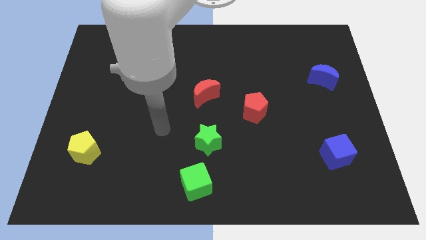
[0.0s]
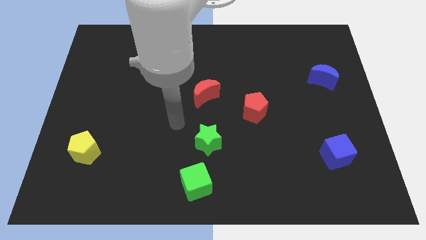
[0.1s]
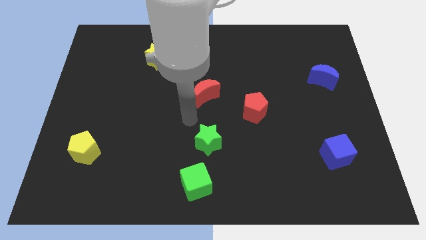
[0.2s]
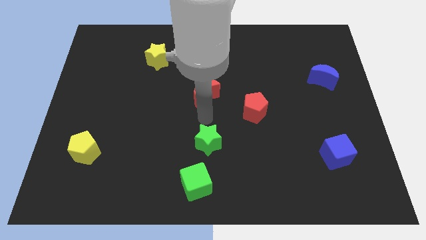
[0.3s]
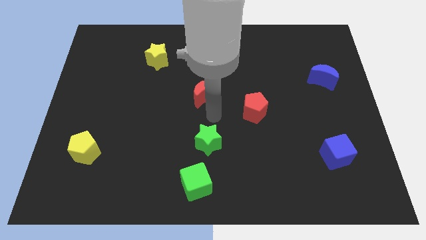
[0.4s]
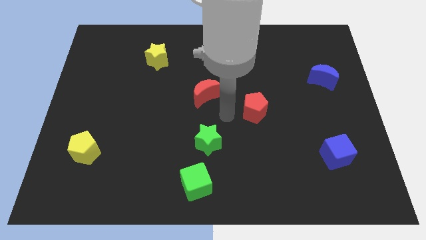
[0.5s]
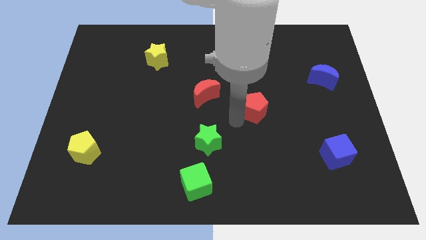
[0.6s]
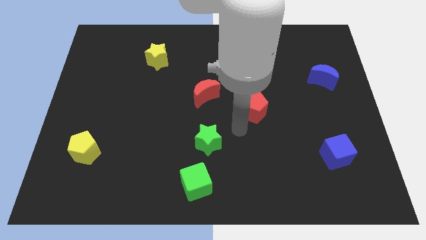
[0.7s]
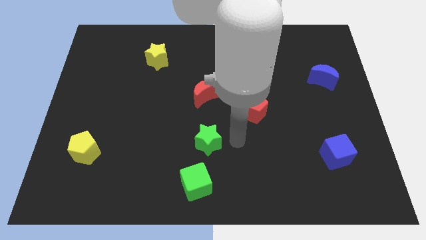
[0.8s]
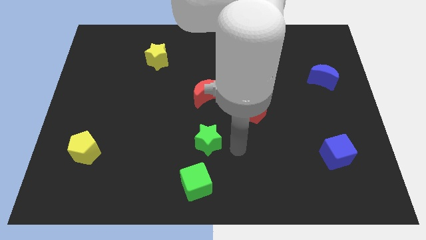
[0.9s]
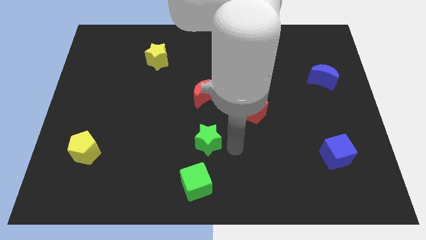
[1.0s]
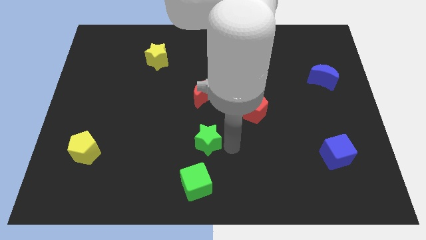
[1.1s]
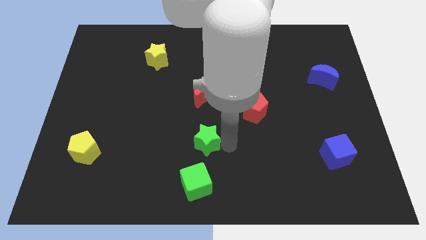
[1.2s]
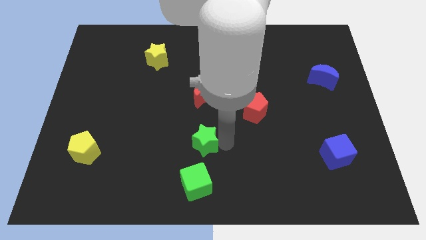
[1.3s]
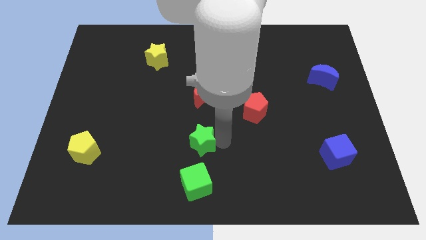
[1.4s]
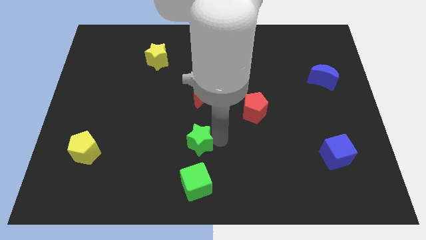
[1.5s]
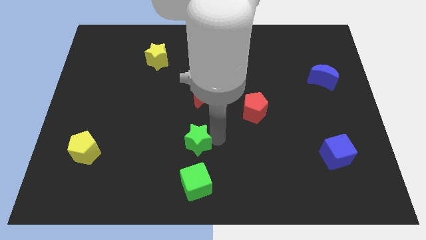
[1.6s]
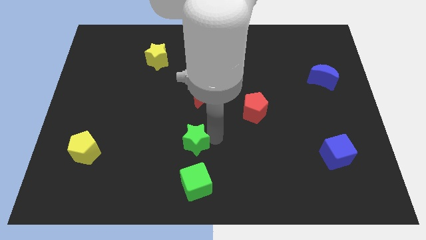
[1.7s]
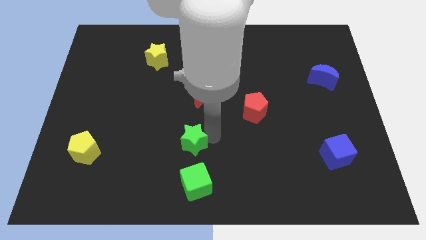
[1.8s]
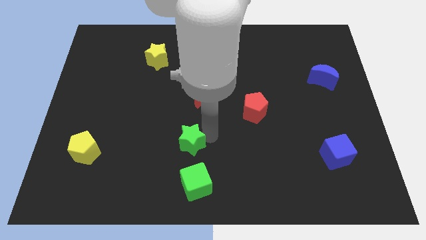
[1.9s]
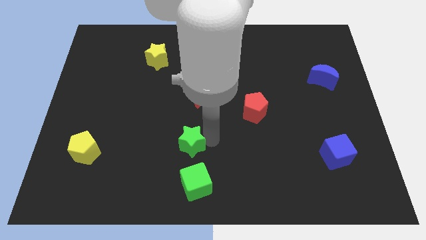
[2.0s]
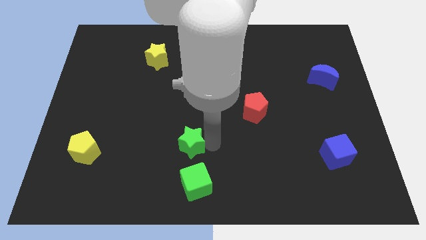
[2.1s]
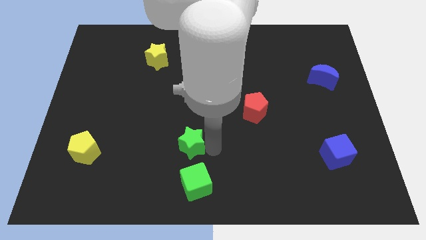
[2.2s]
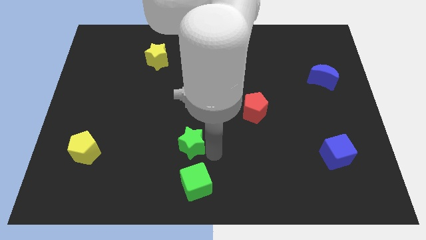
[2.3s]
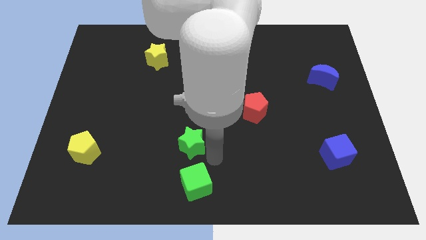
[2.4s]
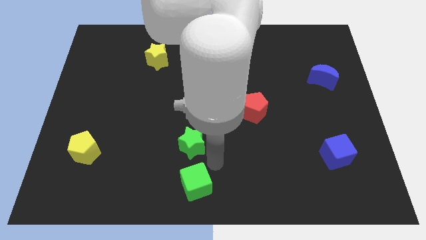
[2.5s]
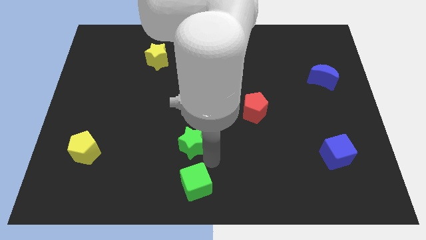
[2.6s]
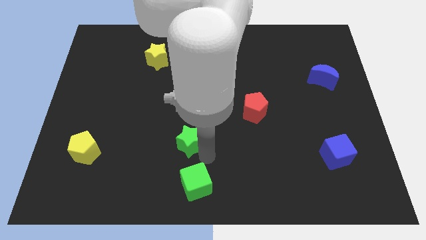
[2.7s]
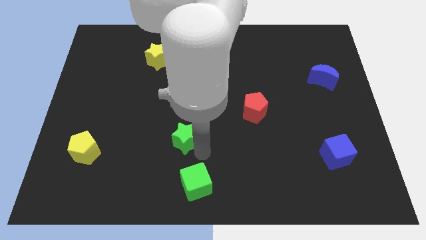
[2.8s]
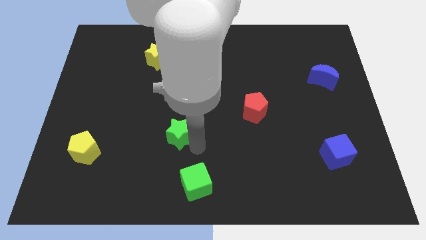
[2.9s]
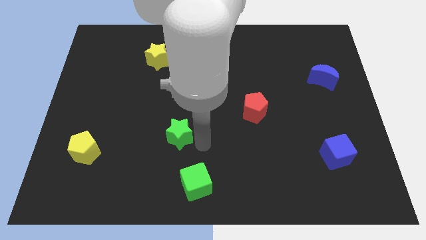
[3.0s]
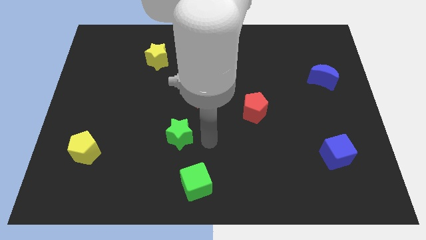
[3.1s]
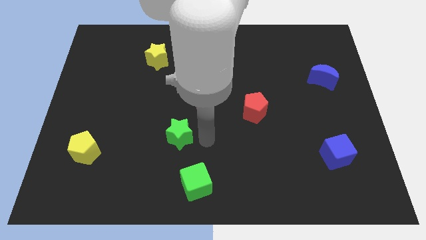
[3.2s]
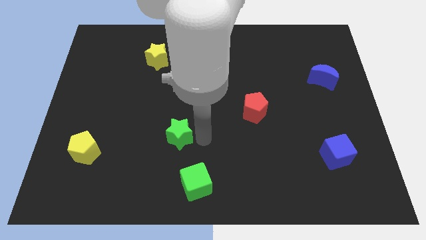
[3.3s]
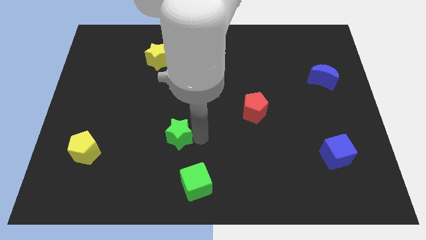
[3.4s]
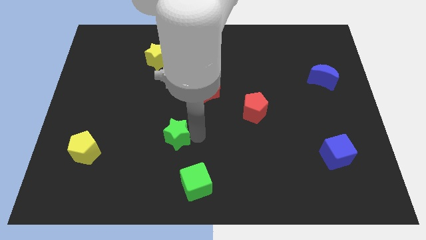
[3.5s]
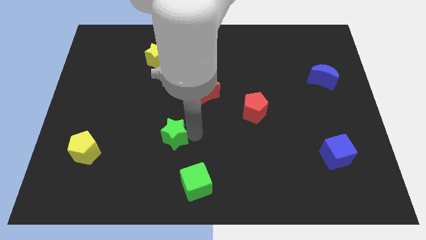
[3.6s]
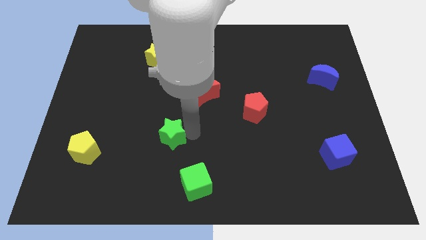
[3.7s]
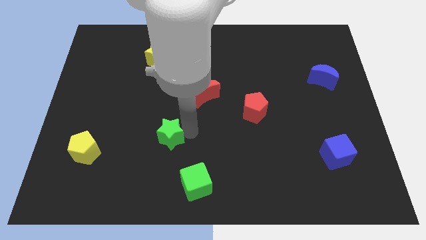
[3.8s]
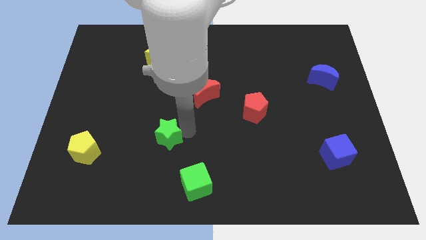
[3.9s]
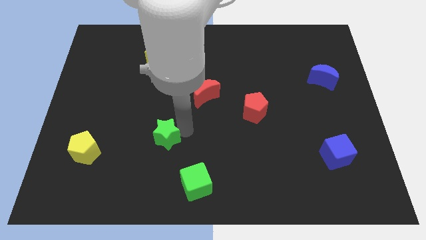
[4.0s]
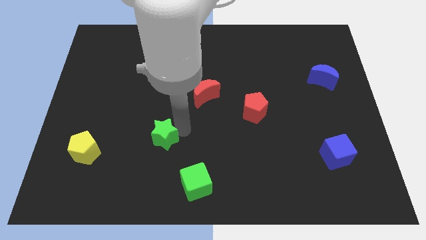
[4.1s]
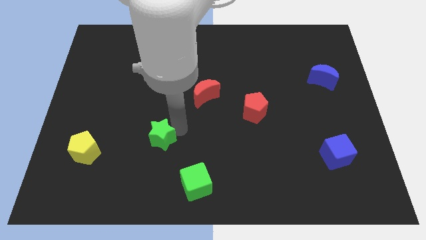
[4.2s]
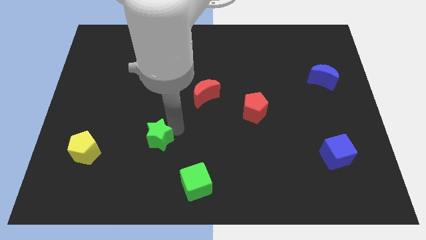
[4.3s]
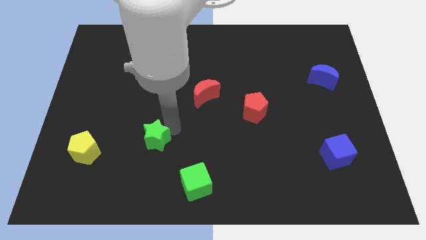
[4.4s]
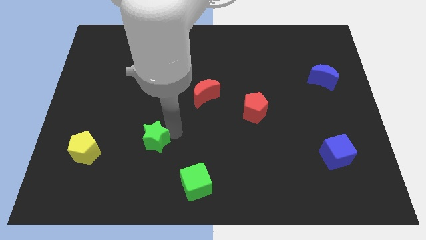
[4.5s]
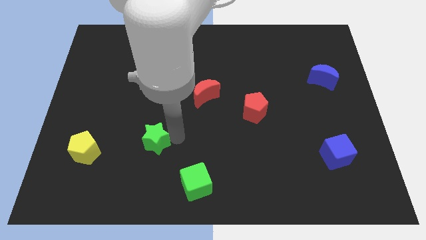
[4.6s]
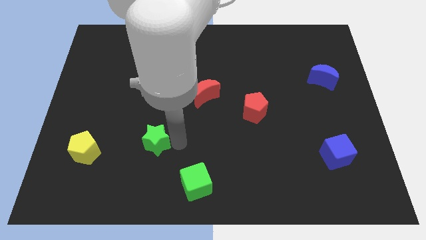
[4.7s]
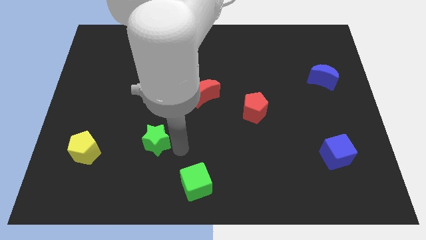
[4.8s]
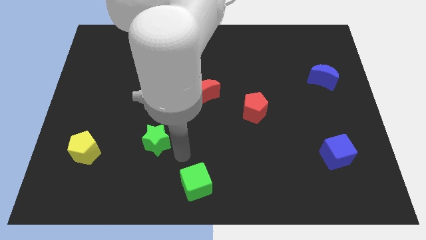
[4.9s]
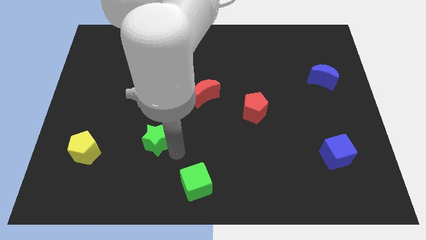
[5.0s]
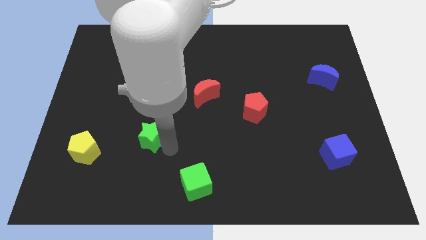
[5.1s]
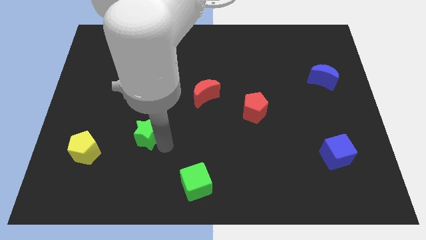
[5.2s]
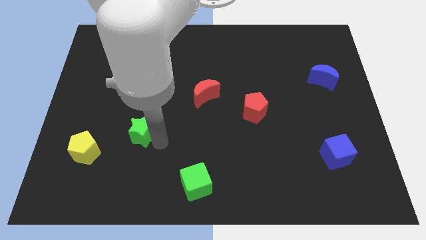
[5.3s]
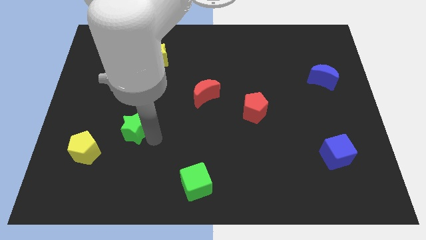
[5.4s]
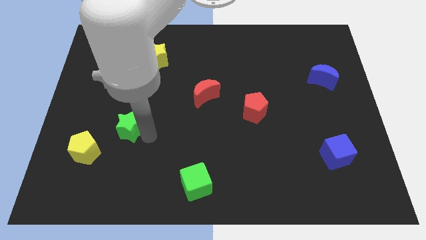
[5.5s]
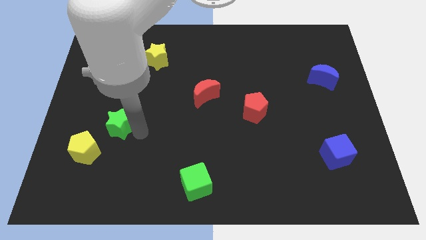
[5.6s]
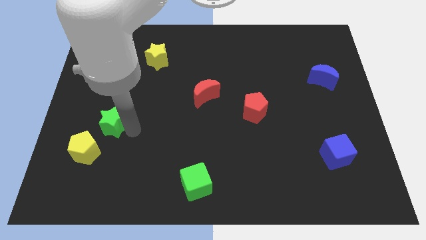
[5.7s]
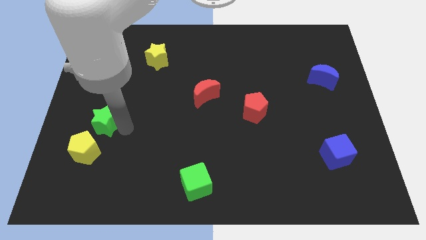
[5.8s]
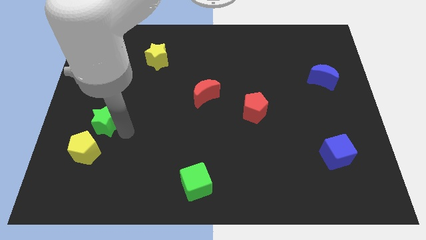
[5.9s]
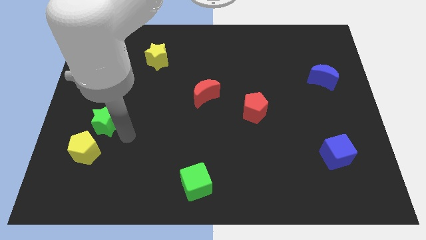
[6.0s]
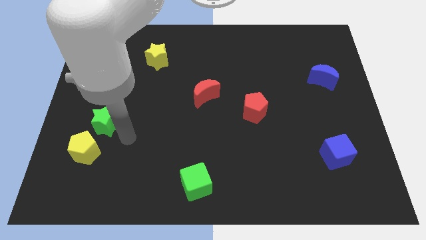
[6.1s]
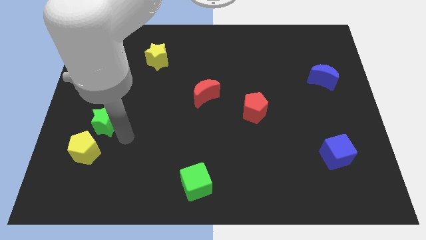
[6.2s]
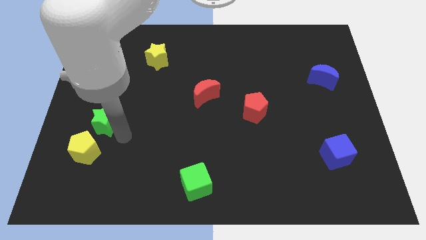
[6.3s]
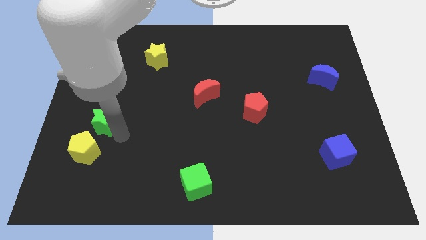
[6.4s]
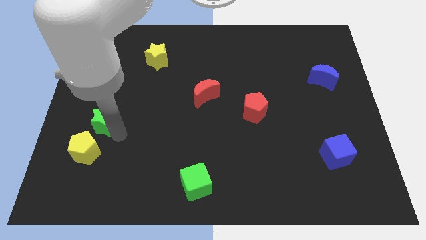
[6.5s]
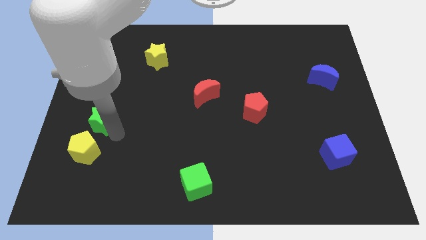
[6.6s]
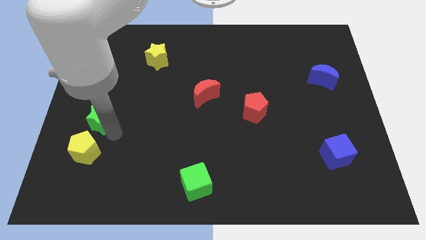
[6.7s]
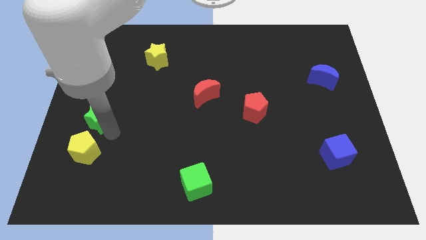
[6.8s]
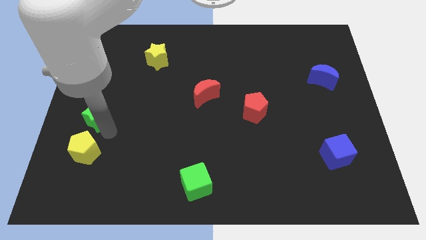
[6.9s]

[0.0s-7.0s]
move the green star to the left side
